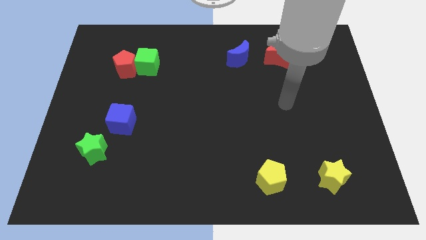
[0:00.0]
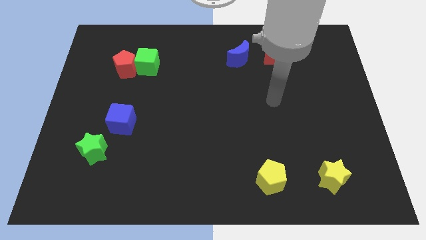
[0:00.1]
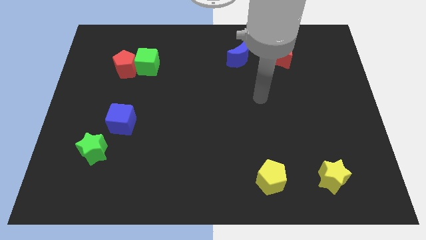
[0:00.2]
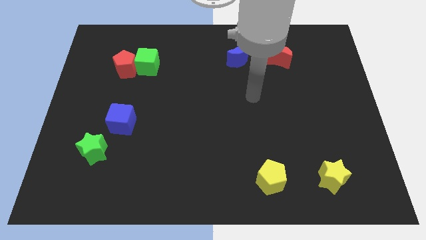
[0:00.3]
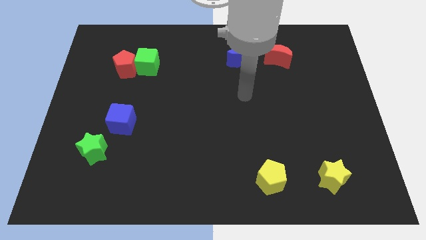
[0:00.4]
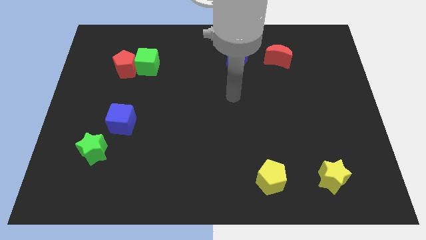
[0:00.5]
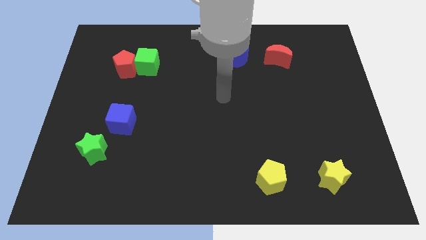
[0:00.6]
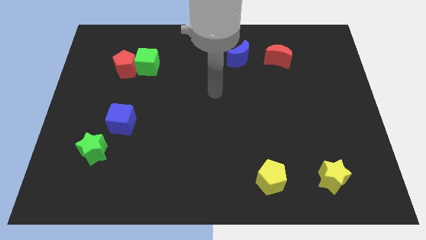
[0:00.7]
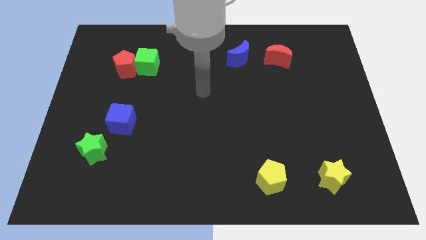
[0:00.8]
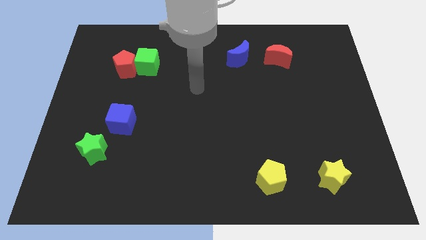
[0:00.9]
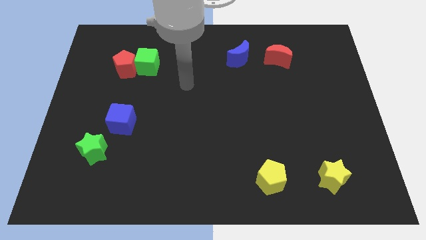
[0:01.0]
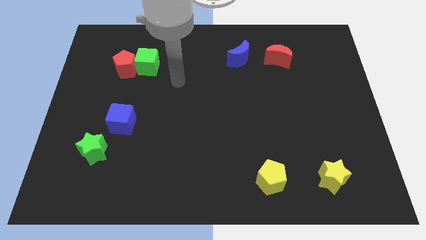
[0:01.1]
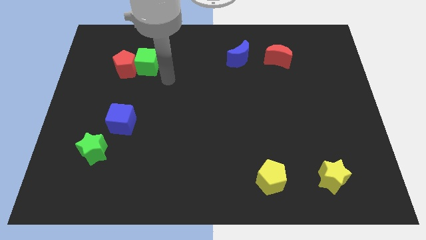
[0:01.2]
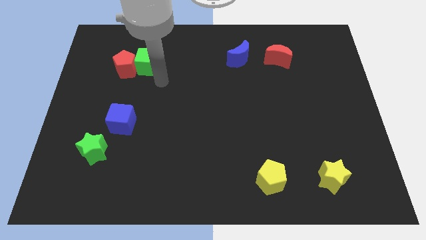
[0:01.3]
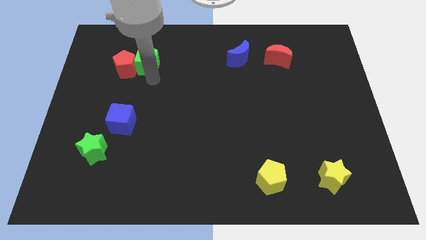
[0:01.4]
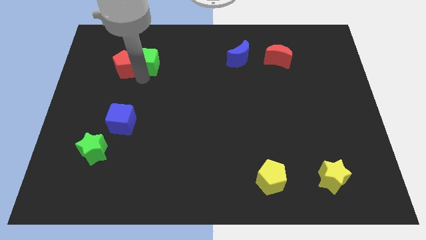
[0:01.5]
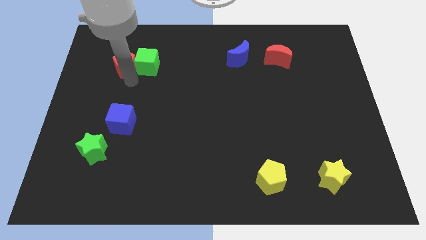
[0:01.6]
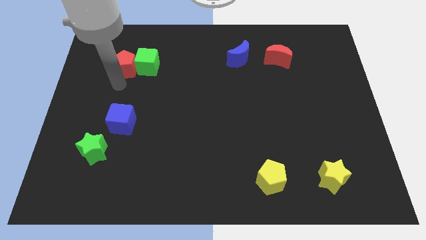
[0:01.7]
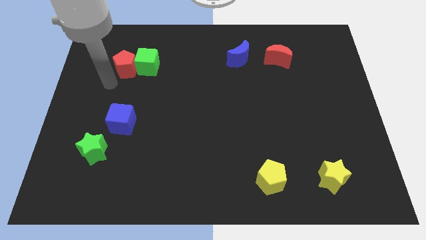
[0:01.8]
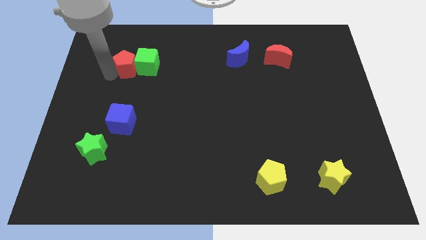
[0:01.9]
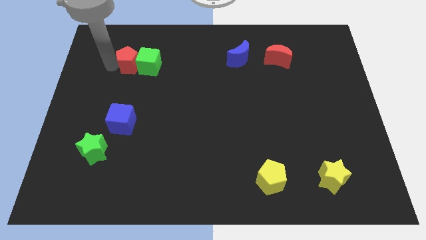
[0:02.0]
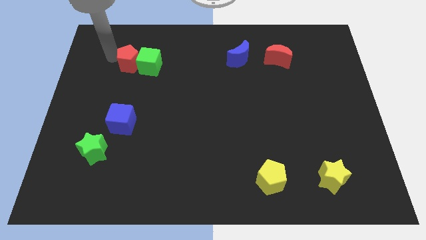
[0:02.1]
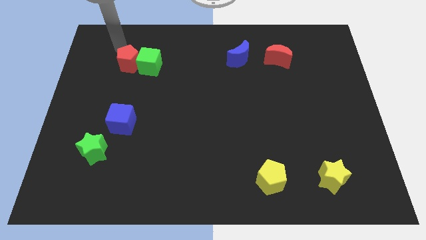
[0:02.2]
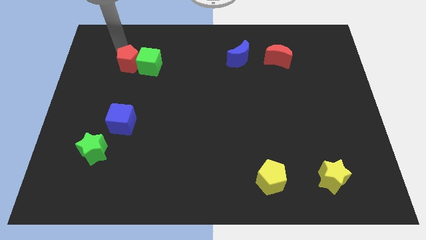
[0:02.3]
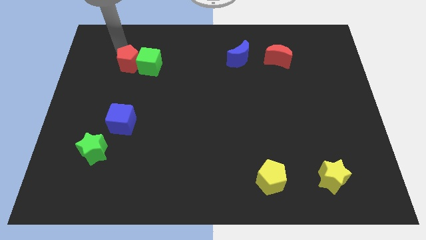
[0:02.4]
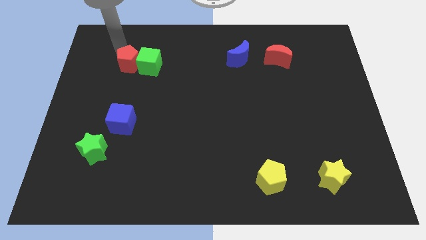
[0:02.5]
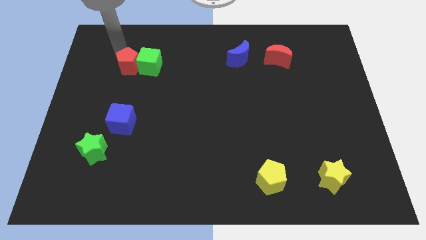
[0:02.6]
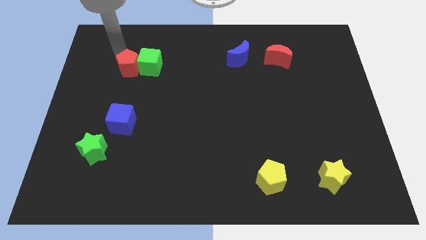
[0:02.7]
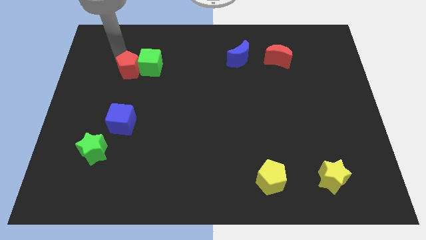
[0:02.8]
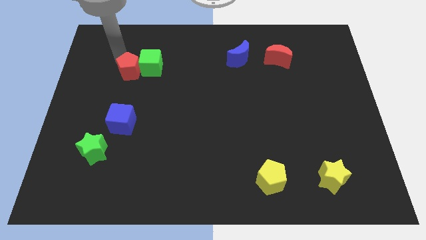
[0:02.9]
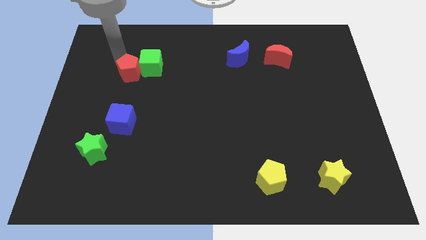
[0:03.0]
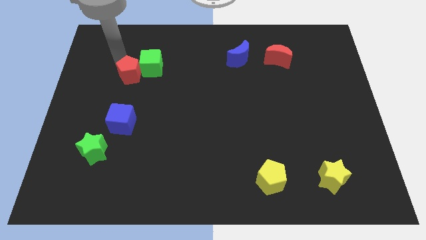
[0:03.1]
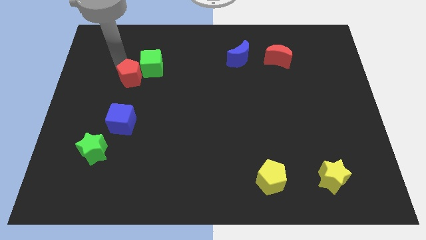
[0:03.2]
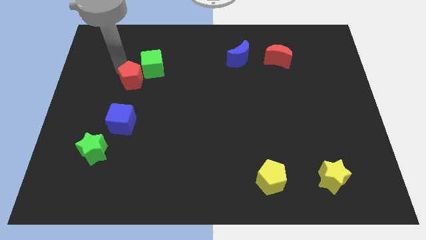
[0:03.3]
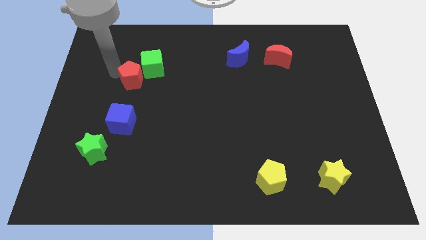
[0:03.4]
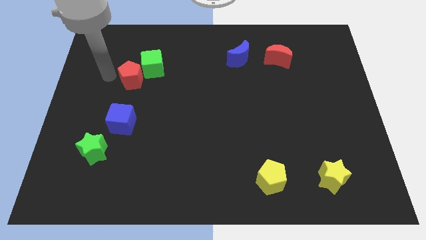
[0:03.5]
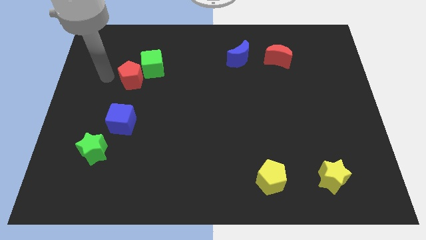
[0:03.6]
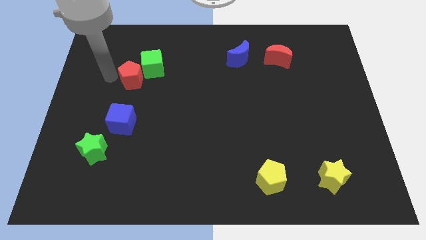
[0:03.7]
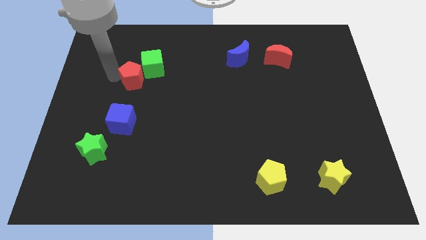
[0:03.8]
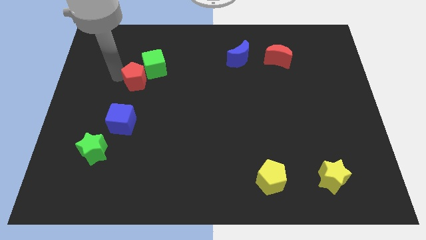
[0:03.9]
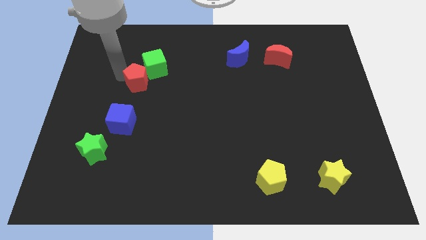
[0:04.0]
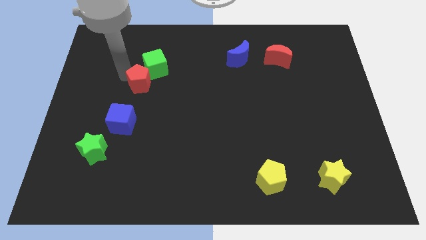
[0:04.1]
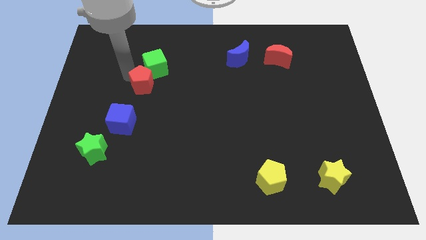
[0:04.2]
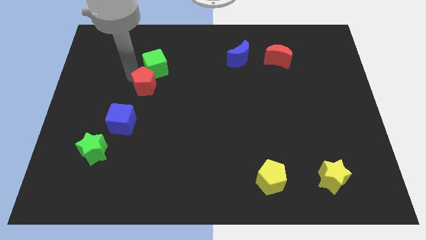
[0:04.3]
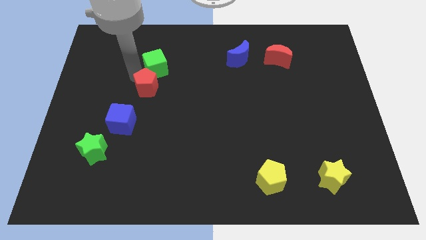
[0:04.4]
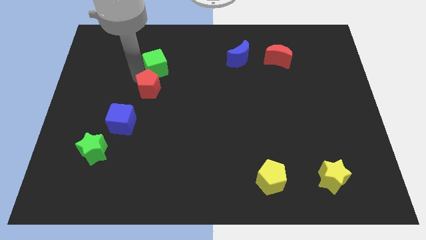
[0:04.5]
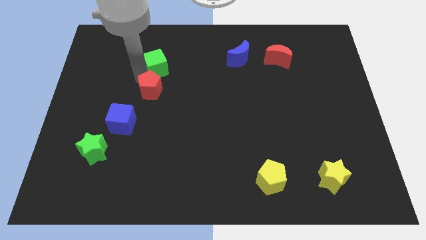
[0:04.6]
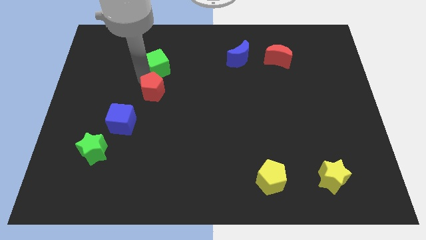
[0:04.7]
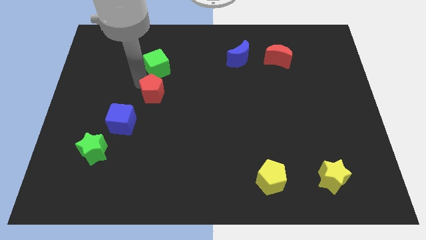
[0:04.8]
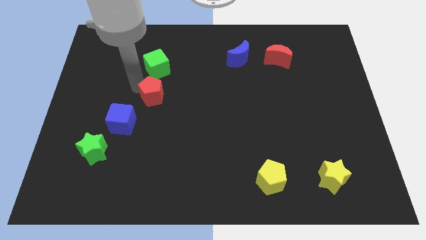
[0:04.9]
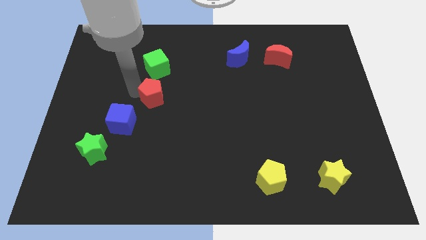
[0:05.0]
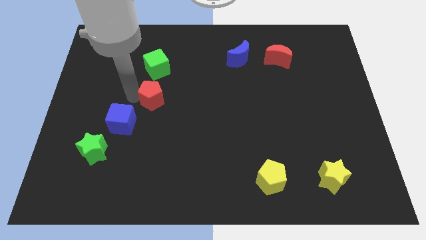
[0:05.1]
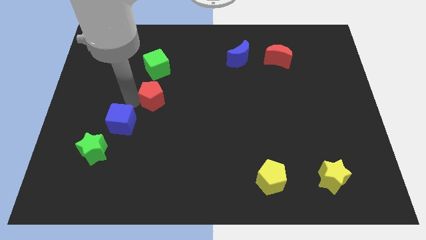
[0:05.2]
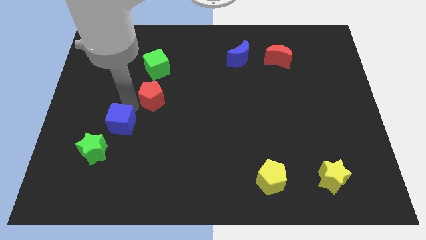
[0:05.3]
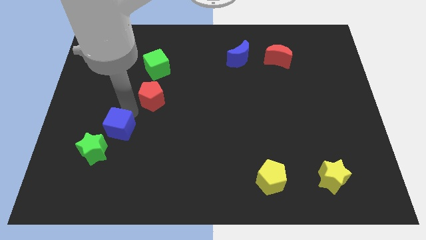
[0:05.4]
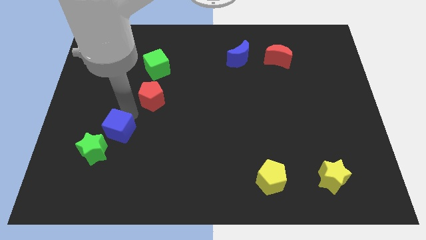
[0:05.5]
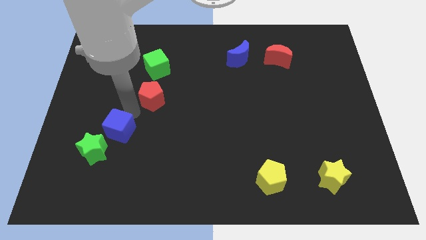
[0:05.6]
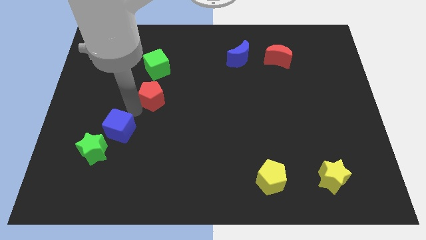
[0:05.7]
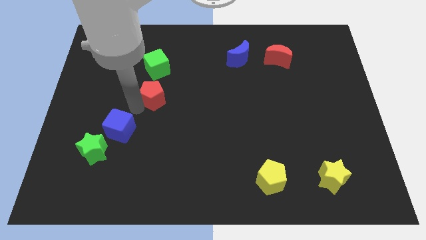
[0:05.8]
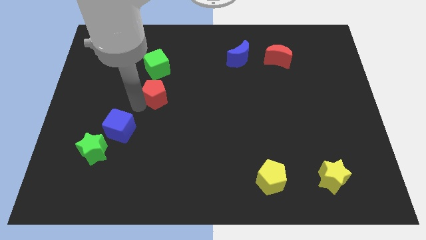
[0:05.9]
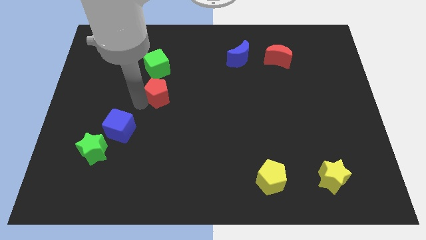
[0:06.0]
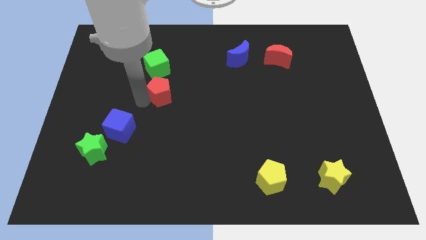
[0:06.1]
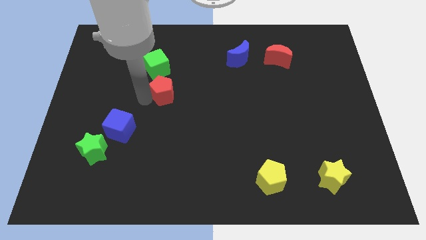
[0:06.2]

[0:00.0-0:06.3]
move the red pentagon to the bottom right side of the green cube

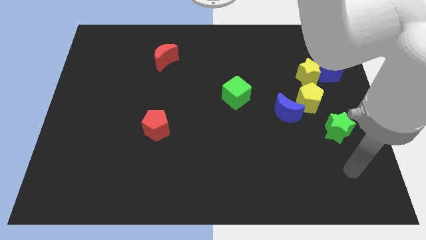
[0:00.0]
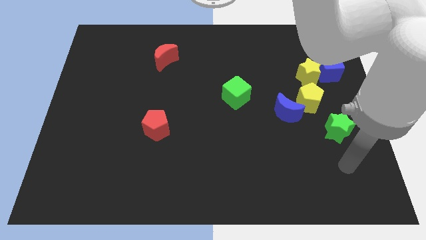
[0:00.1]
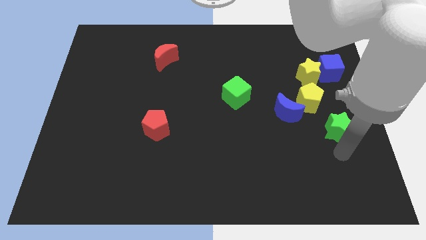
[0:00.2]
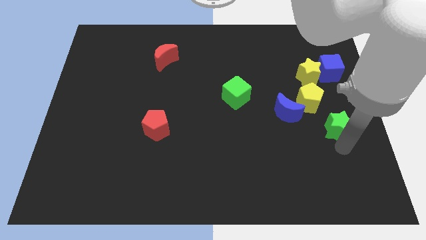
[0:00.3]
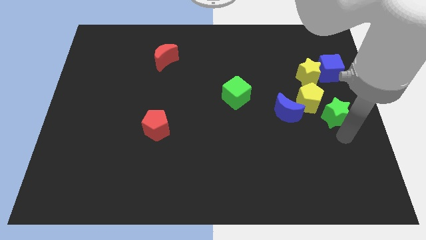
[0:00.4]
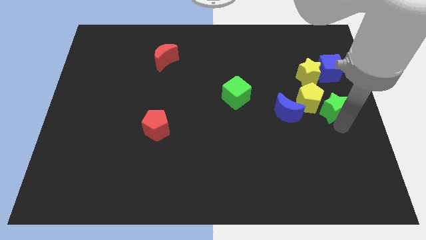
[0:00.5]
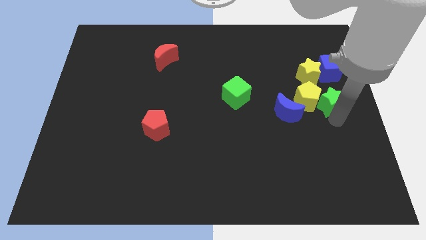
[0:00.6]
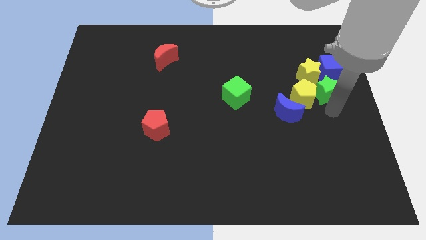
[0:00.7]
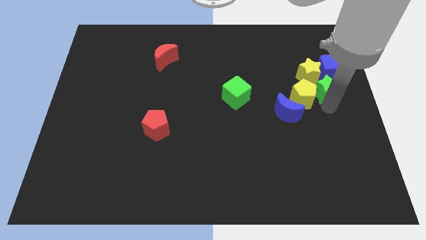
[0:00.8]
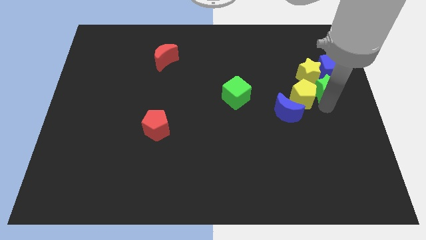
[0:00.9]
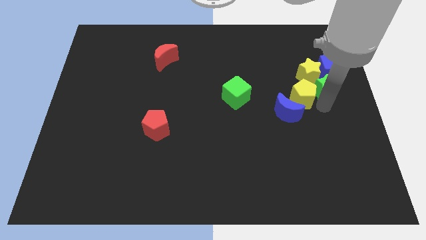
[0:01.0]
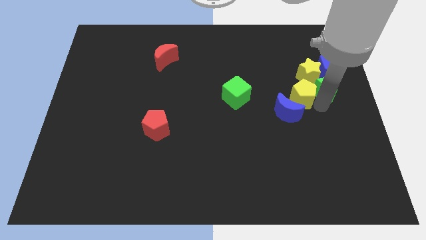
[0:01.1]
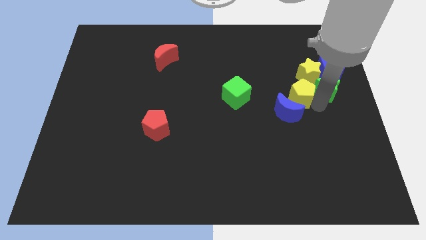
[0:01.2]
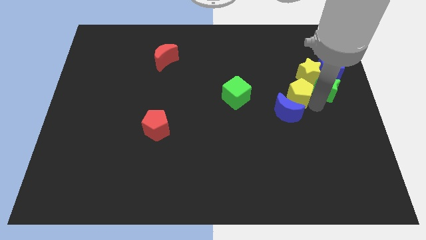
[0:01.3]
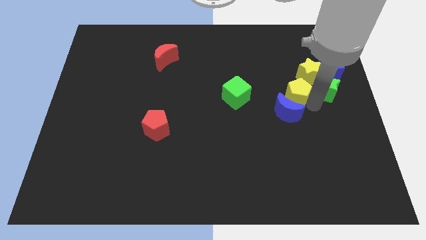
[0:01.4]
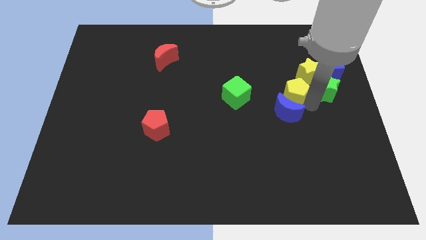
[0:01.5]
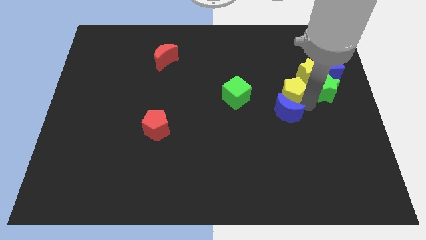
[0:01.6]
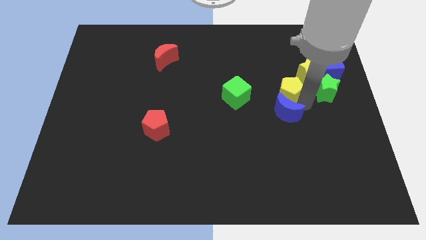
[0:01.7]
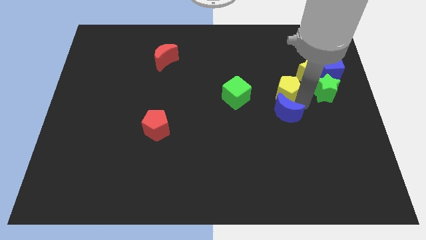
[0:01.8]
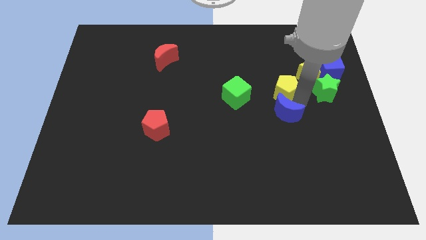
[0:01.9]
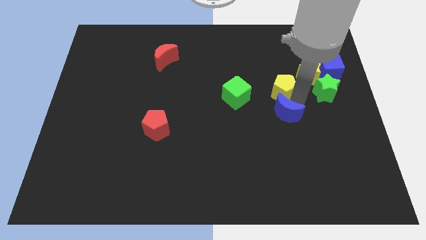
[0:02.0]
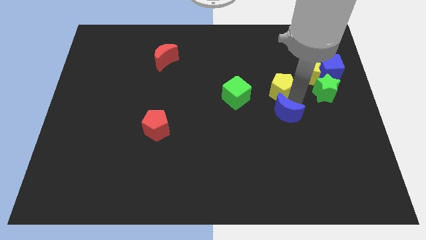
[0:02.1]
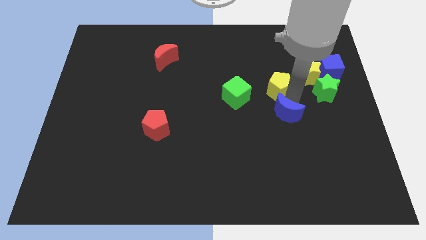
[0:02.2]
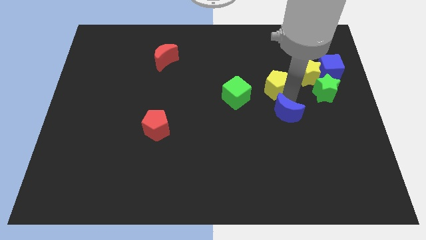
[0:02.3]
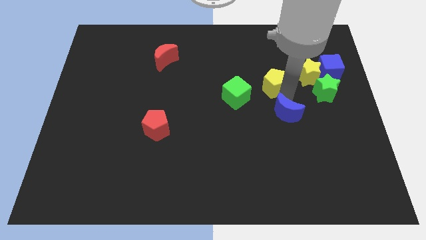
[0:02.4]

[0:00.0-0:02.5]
put the yellow pentagon to the top right of the green cube
